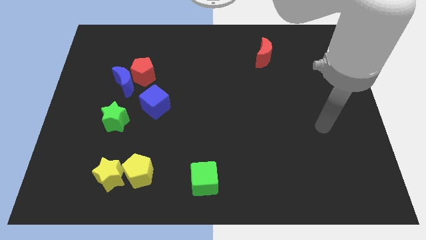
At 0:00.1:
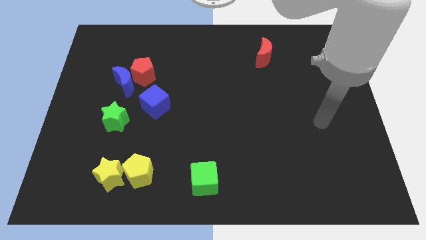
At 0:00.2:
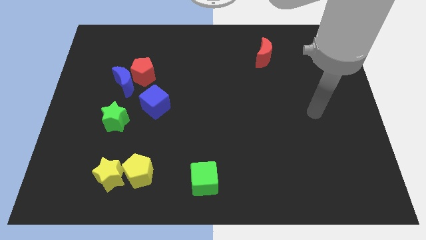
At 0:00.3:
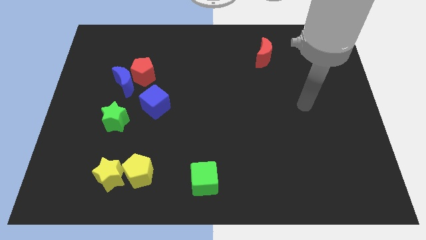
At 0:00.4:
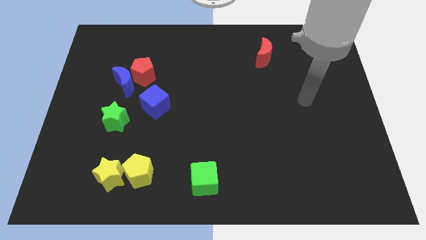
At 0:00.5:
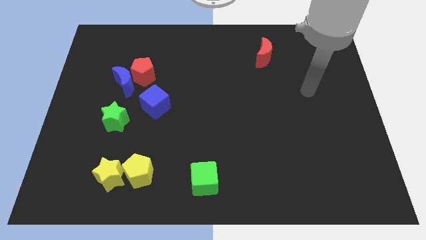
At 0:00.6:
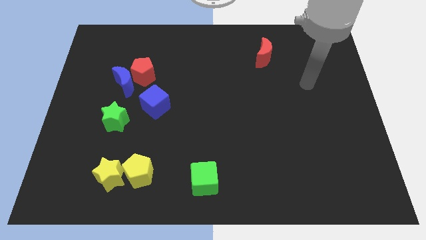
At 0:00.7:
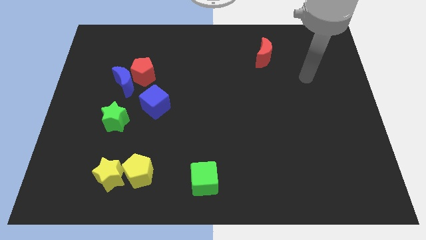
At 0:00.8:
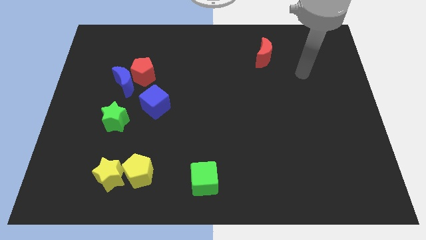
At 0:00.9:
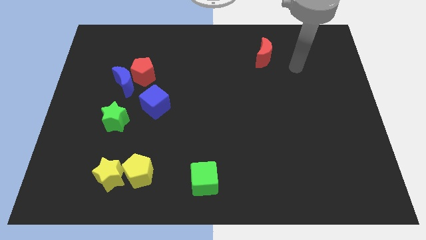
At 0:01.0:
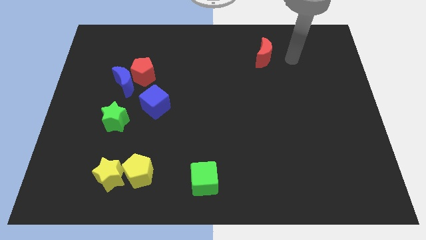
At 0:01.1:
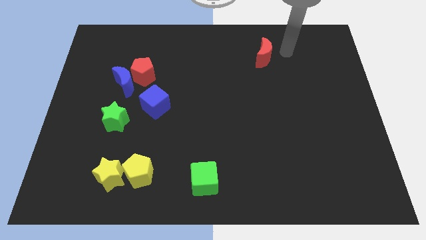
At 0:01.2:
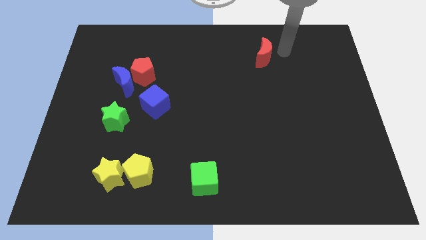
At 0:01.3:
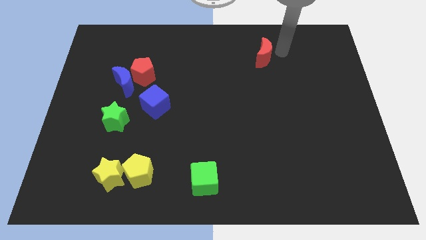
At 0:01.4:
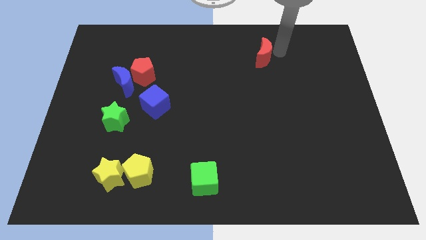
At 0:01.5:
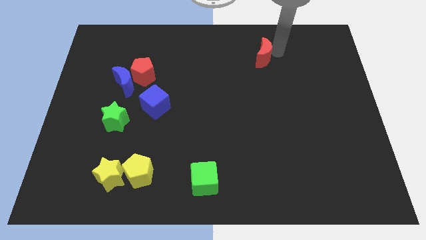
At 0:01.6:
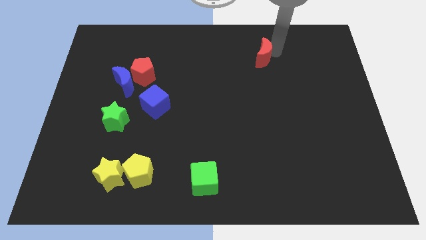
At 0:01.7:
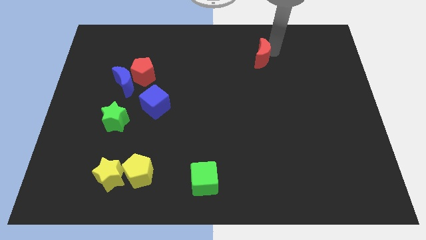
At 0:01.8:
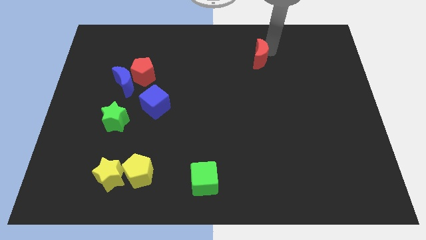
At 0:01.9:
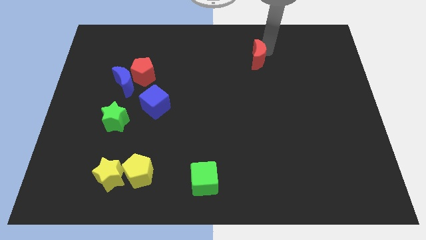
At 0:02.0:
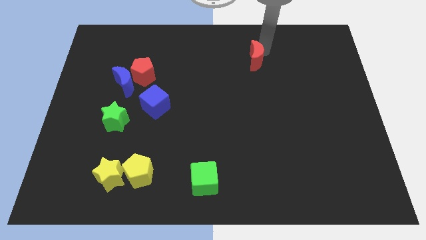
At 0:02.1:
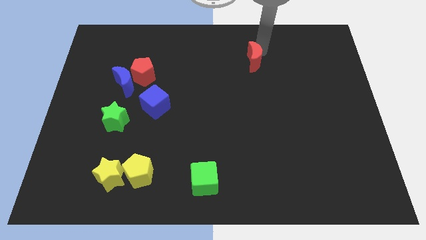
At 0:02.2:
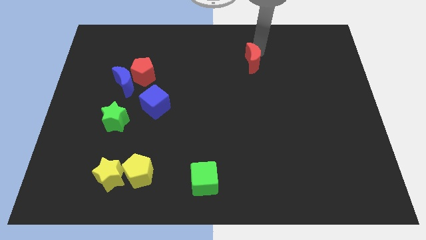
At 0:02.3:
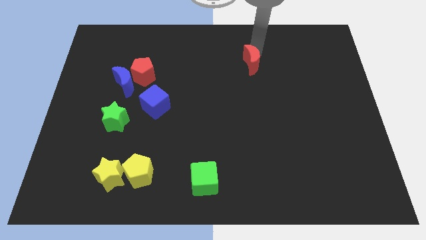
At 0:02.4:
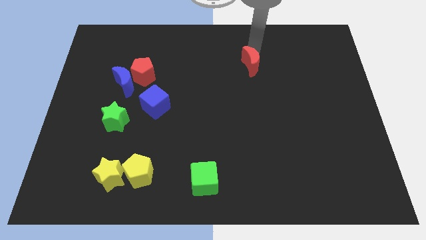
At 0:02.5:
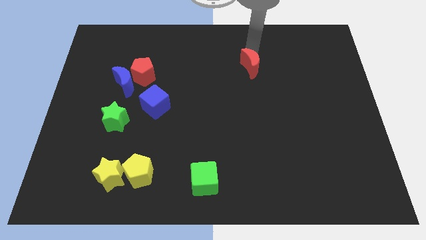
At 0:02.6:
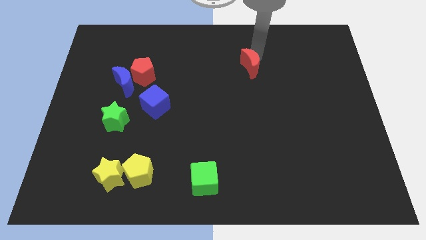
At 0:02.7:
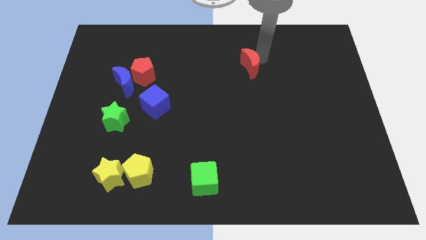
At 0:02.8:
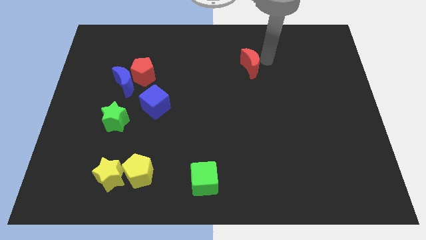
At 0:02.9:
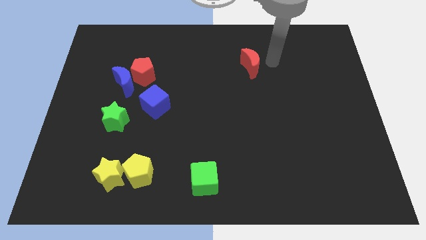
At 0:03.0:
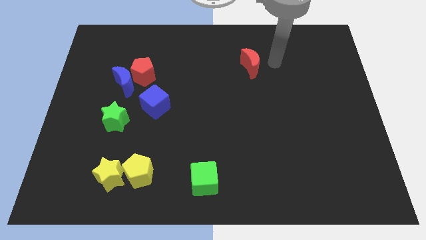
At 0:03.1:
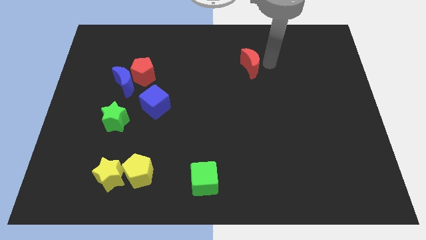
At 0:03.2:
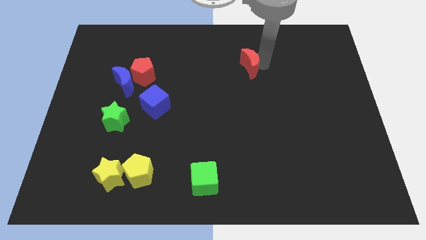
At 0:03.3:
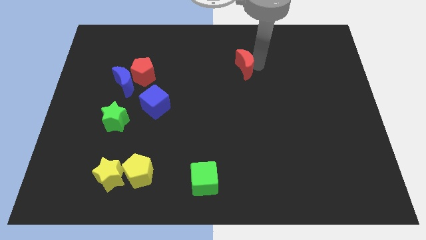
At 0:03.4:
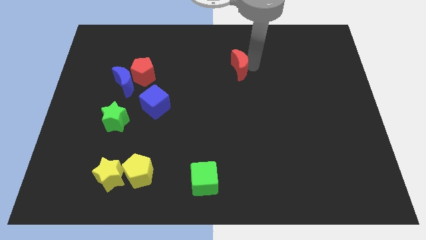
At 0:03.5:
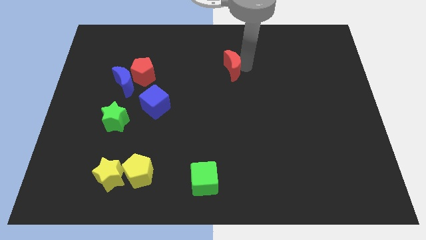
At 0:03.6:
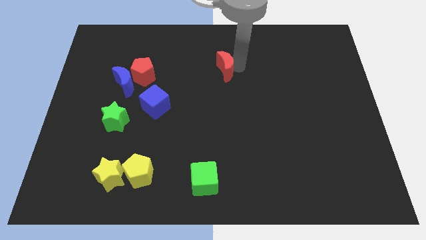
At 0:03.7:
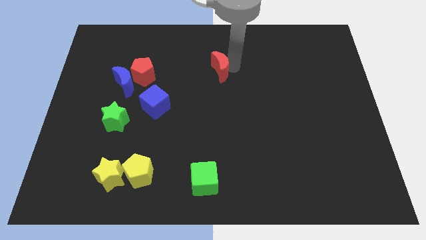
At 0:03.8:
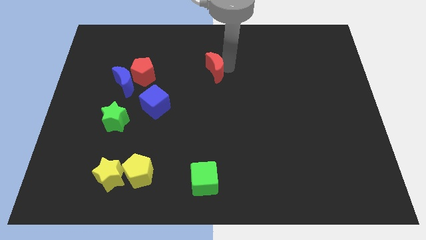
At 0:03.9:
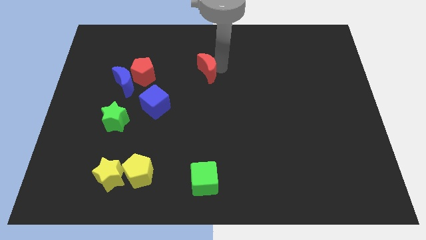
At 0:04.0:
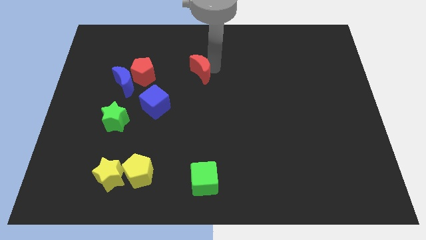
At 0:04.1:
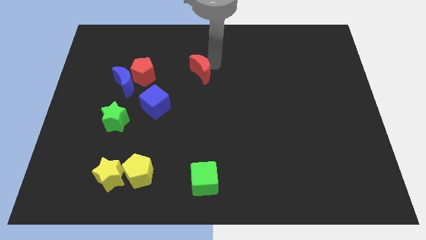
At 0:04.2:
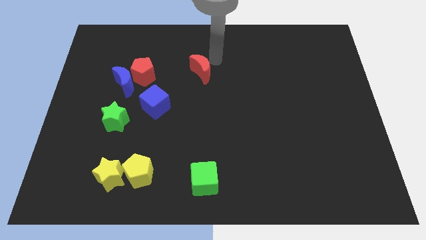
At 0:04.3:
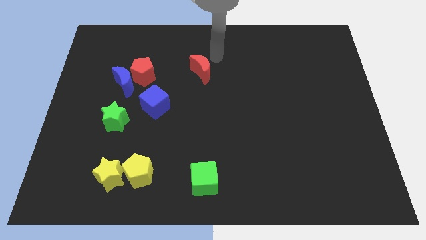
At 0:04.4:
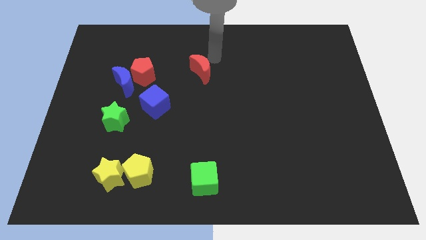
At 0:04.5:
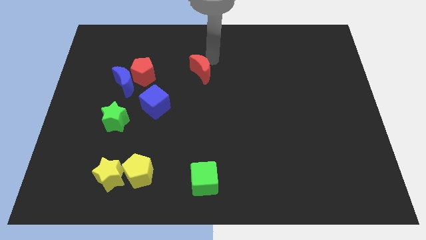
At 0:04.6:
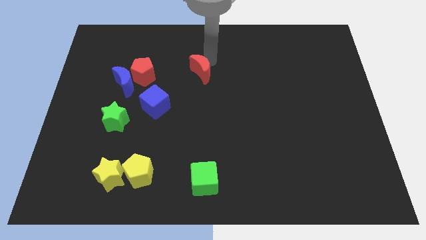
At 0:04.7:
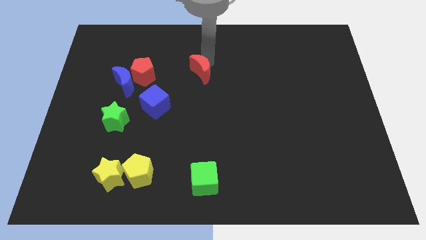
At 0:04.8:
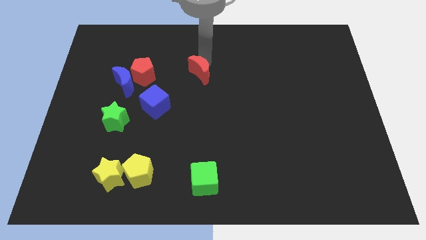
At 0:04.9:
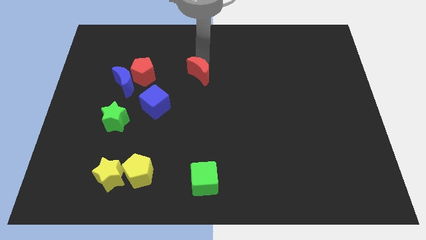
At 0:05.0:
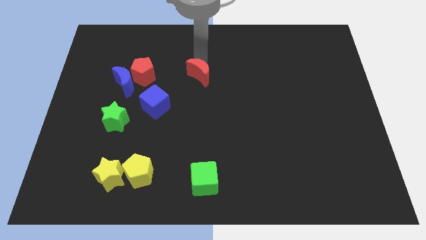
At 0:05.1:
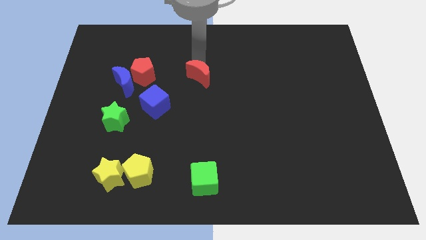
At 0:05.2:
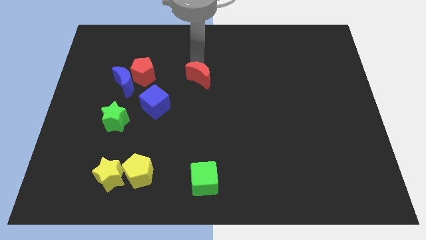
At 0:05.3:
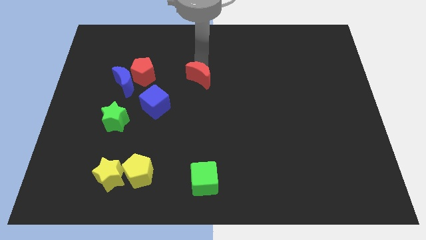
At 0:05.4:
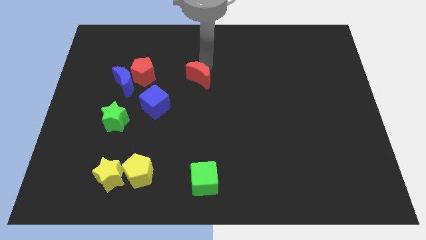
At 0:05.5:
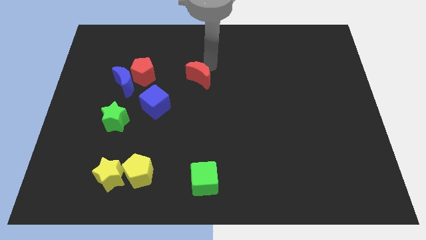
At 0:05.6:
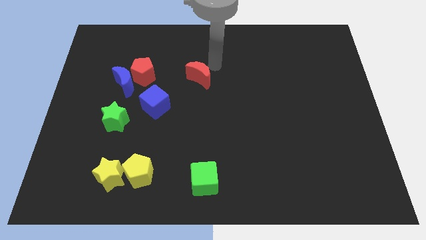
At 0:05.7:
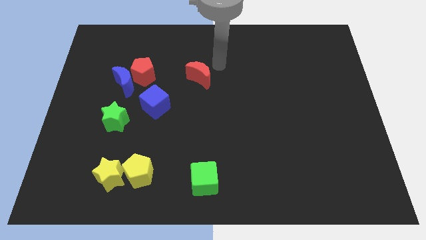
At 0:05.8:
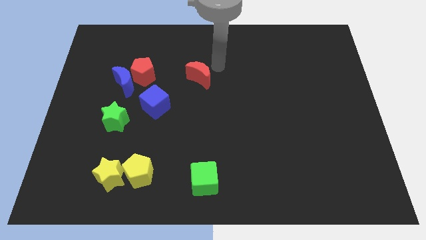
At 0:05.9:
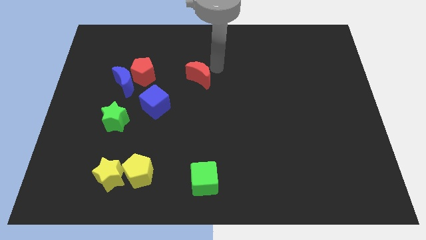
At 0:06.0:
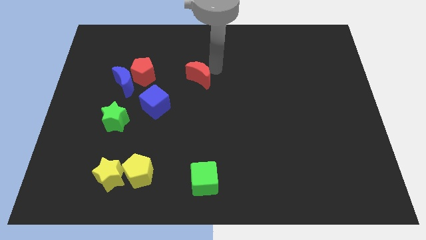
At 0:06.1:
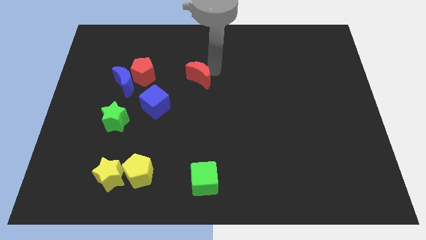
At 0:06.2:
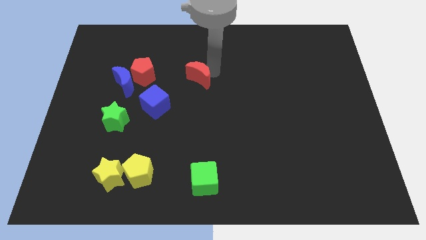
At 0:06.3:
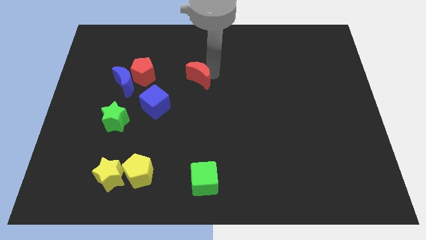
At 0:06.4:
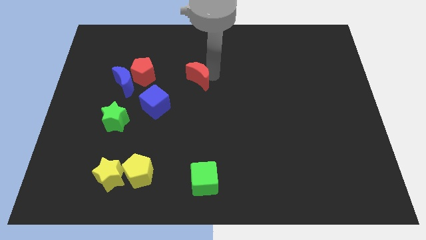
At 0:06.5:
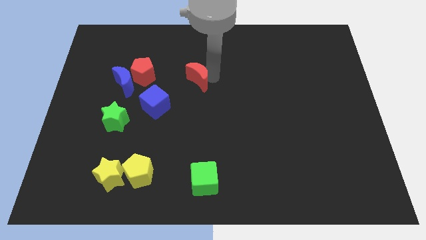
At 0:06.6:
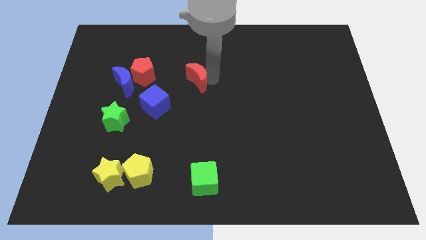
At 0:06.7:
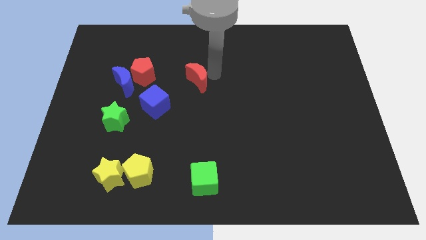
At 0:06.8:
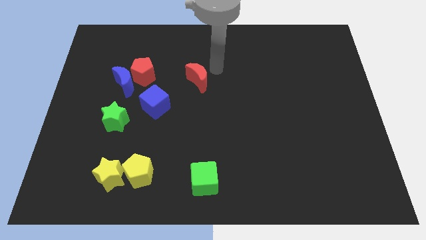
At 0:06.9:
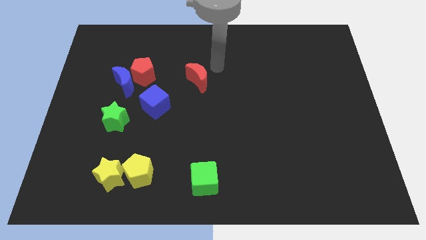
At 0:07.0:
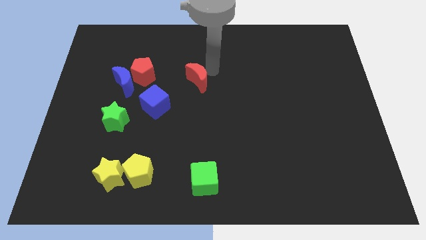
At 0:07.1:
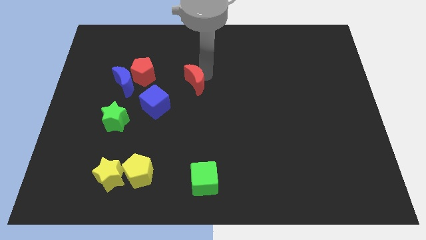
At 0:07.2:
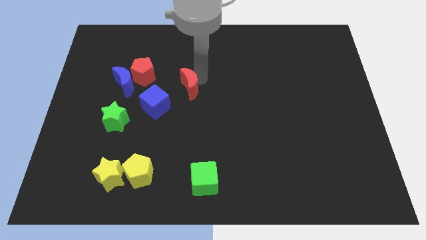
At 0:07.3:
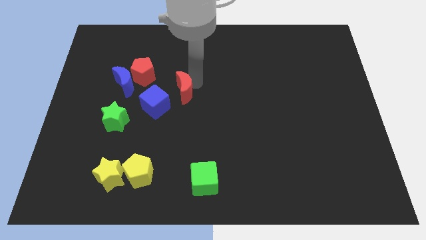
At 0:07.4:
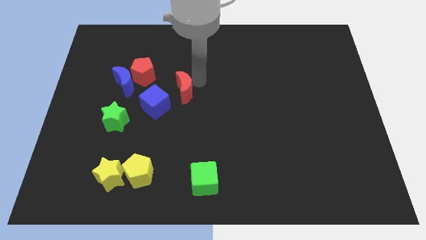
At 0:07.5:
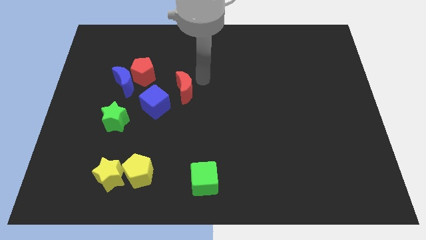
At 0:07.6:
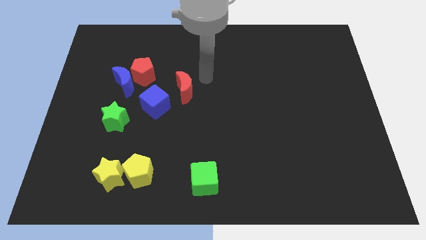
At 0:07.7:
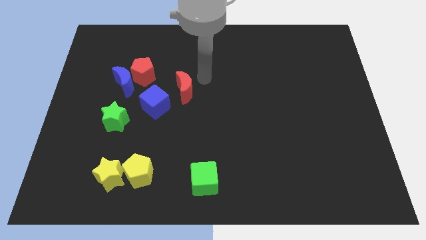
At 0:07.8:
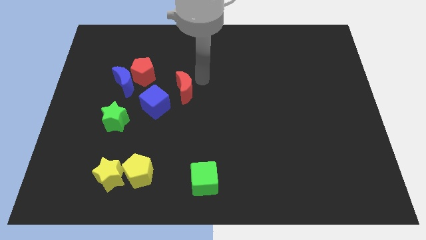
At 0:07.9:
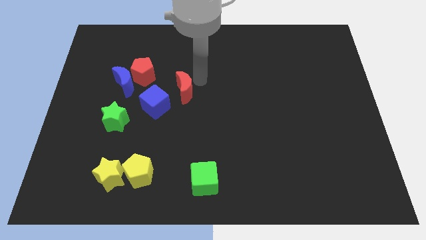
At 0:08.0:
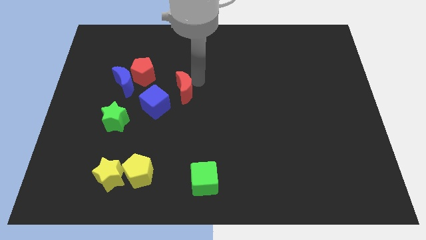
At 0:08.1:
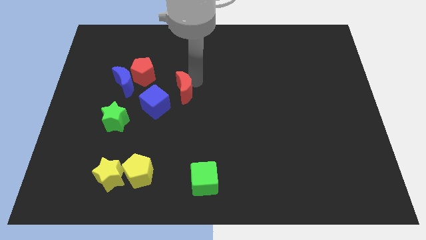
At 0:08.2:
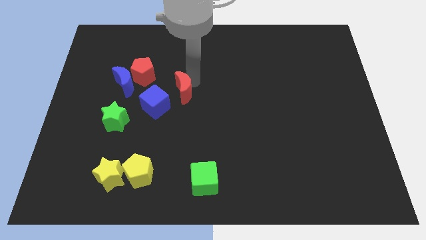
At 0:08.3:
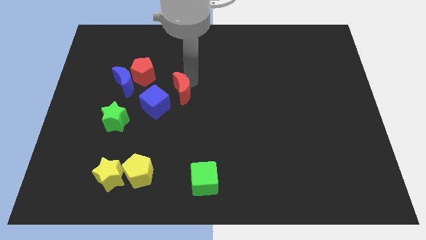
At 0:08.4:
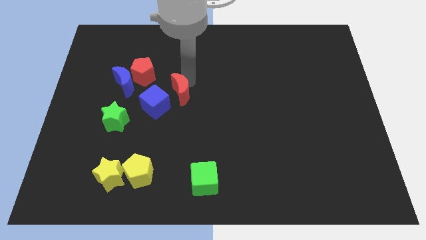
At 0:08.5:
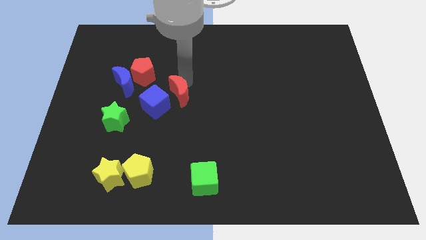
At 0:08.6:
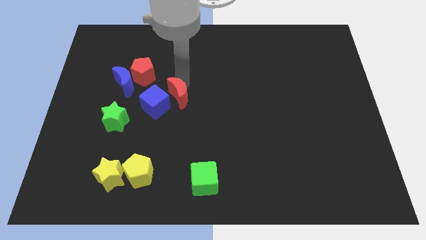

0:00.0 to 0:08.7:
push the red moon to the blue cube
